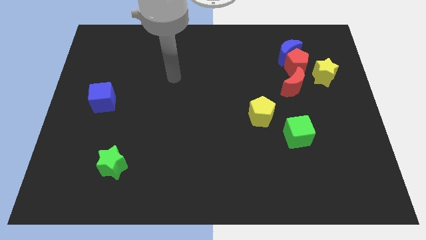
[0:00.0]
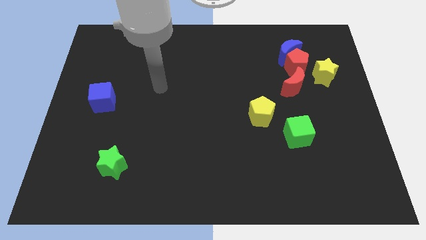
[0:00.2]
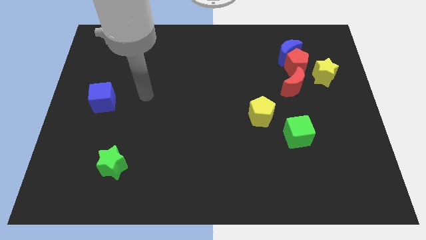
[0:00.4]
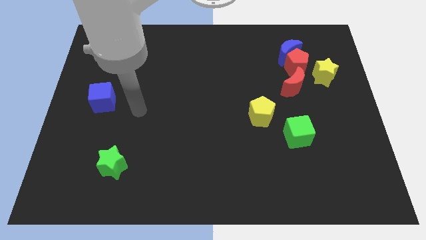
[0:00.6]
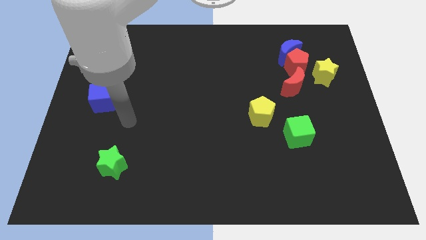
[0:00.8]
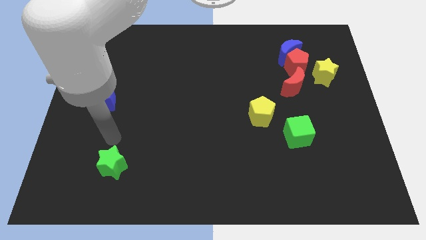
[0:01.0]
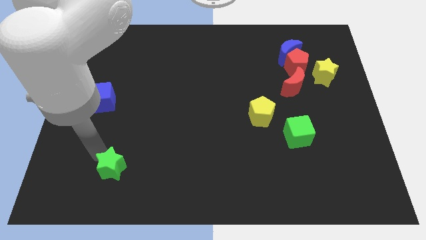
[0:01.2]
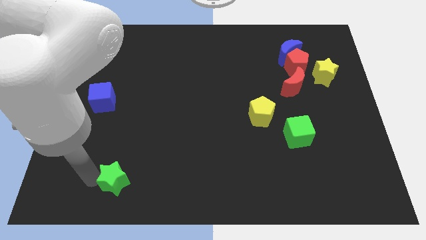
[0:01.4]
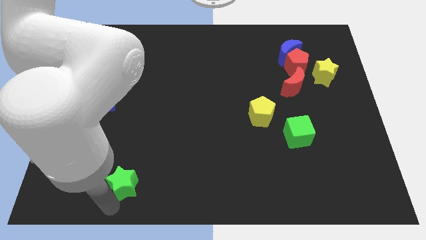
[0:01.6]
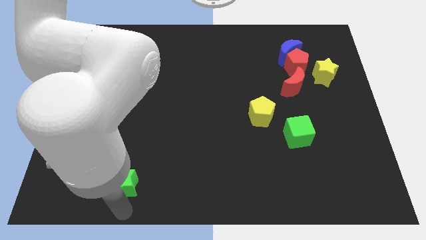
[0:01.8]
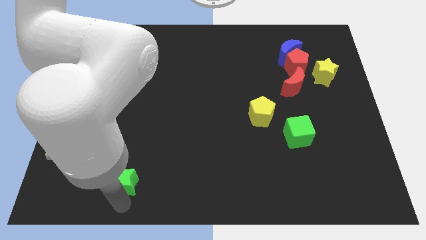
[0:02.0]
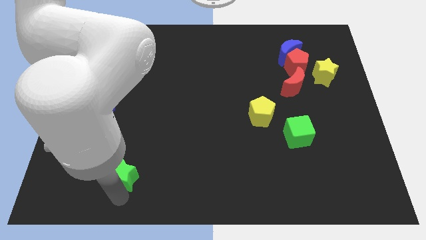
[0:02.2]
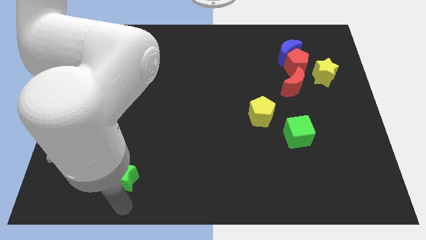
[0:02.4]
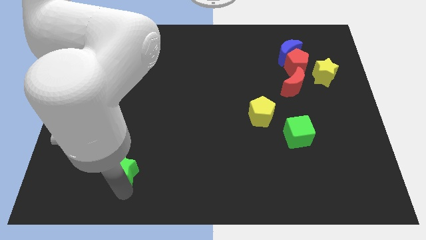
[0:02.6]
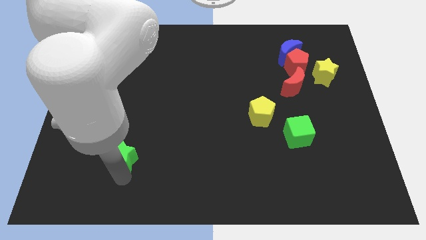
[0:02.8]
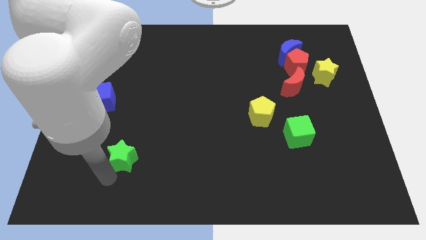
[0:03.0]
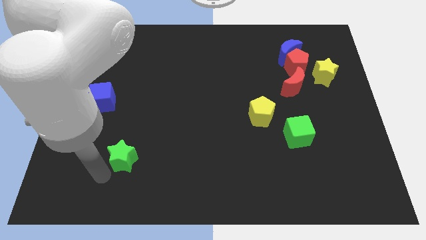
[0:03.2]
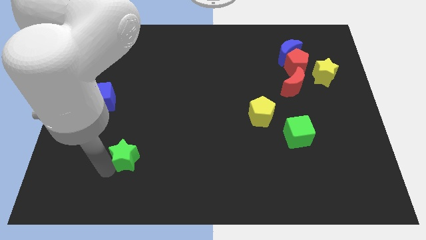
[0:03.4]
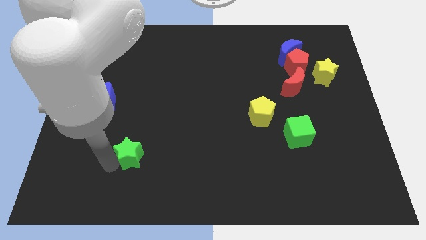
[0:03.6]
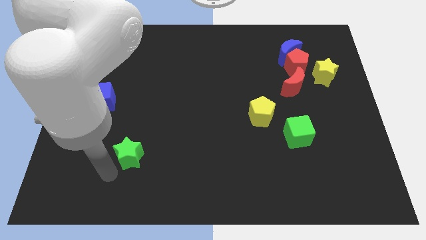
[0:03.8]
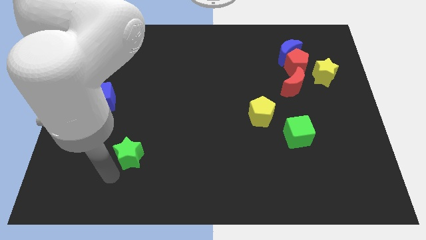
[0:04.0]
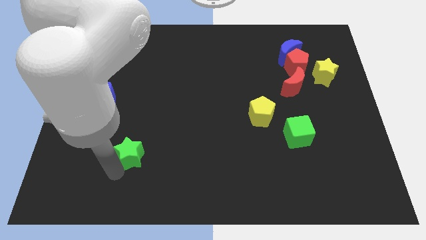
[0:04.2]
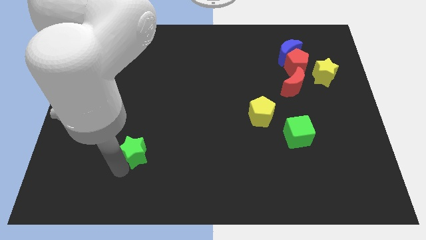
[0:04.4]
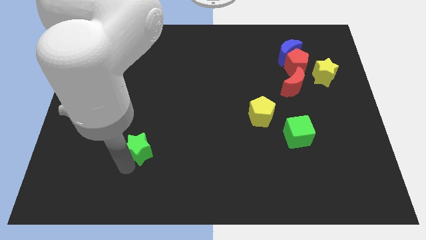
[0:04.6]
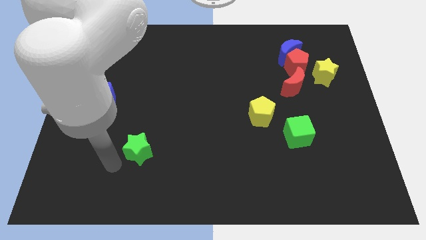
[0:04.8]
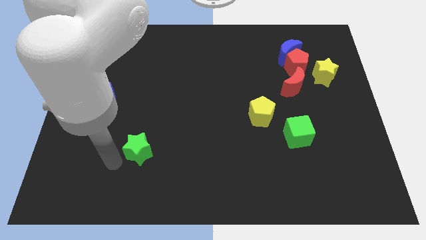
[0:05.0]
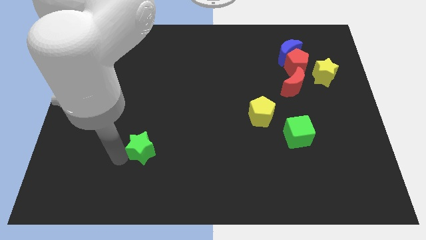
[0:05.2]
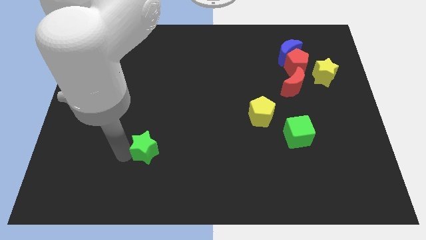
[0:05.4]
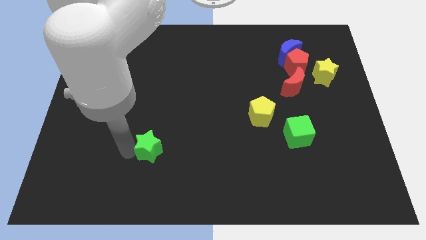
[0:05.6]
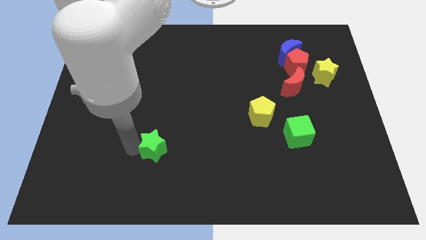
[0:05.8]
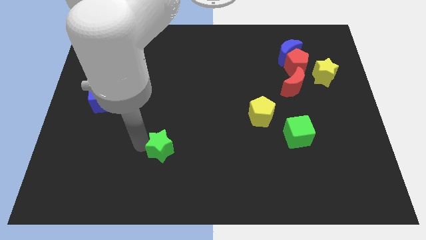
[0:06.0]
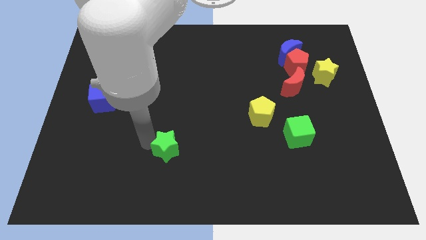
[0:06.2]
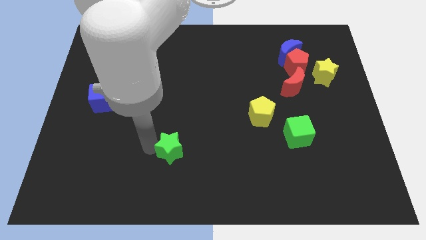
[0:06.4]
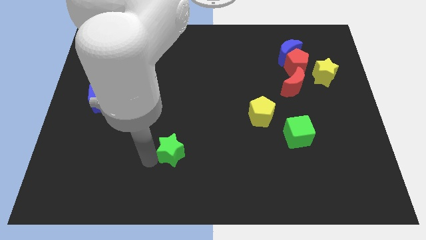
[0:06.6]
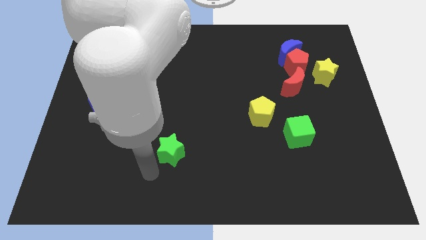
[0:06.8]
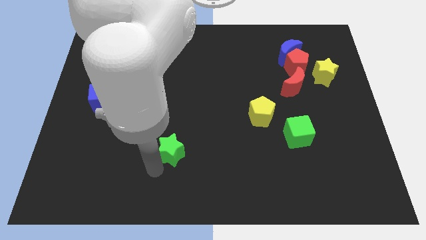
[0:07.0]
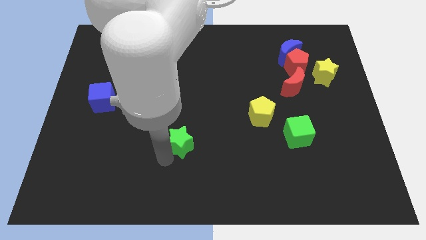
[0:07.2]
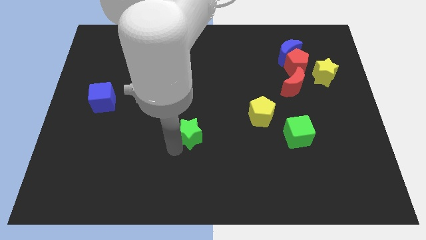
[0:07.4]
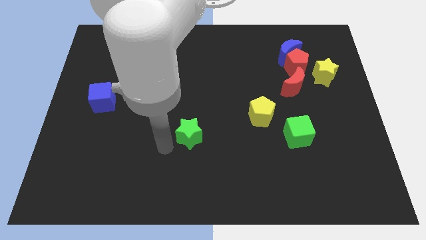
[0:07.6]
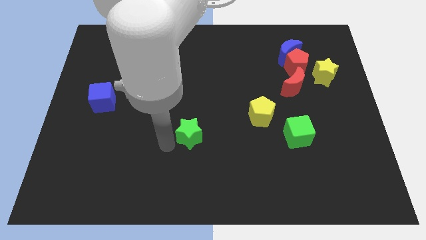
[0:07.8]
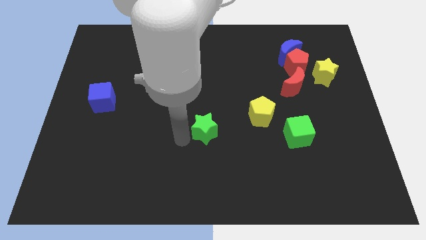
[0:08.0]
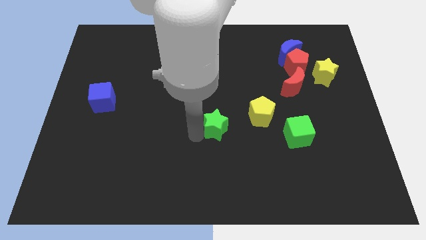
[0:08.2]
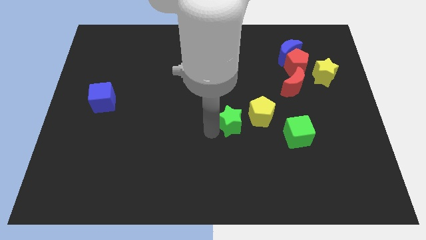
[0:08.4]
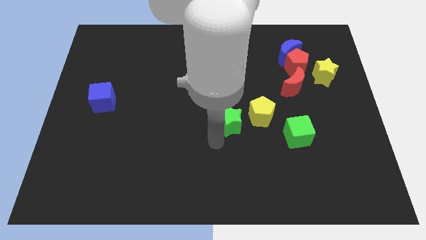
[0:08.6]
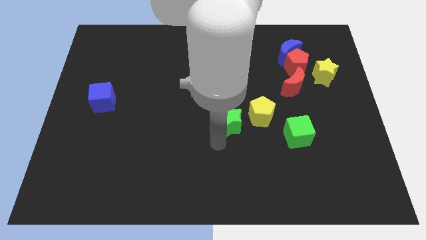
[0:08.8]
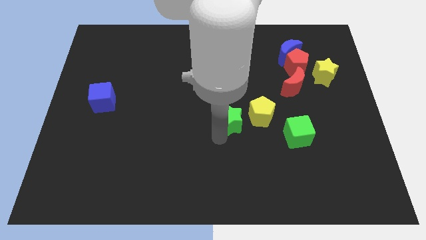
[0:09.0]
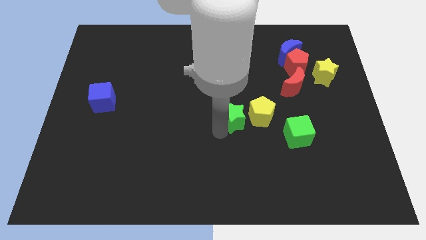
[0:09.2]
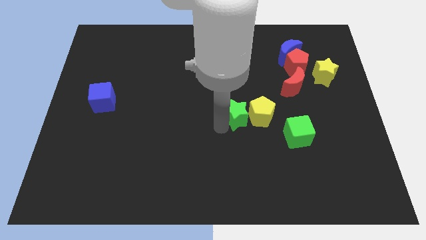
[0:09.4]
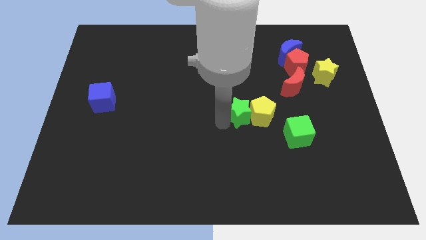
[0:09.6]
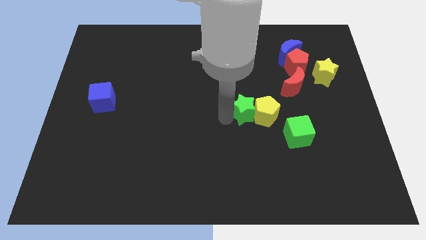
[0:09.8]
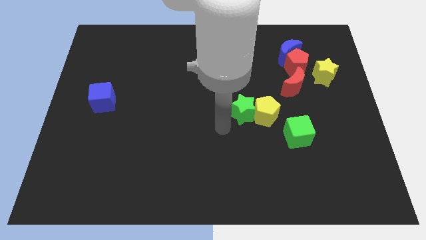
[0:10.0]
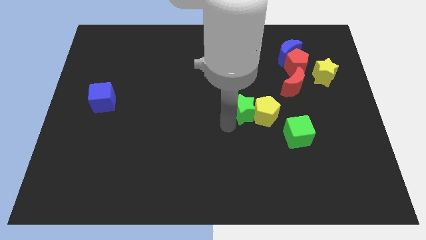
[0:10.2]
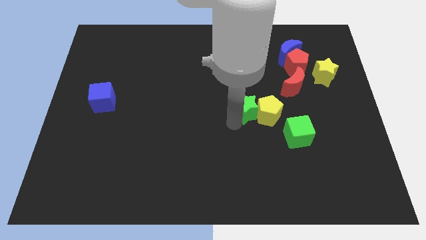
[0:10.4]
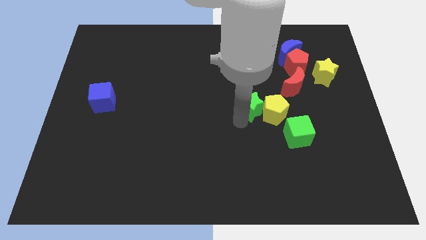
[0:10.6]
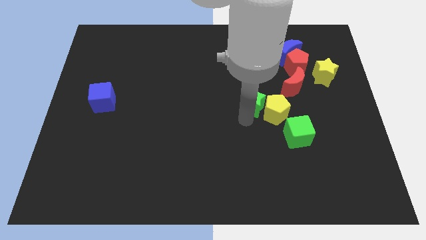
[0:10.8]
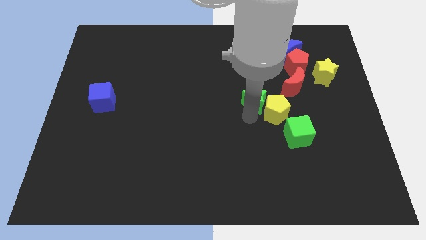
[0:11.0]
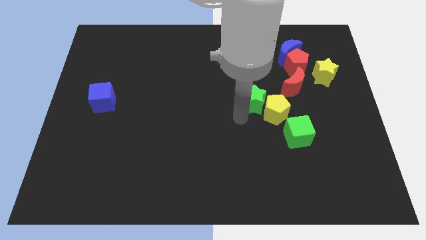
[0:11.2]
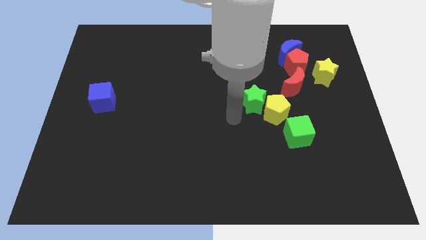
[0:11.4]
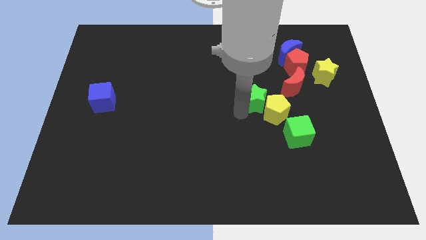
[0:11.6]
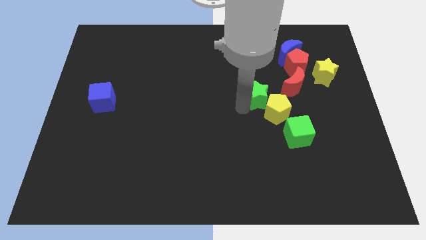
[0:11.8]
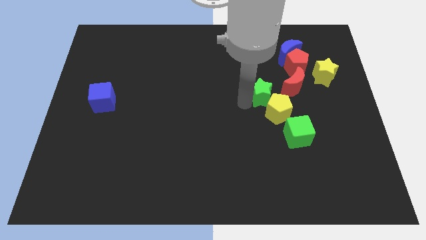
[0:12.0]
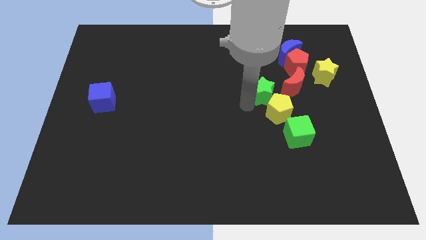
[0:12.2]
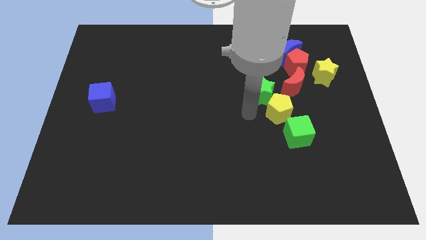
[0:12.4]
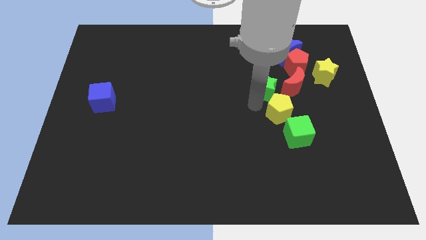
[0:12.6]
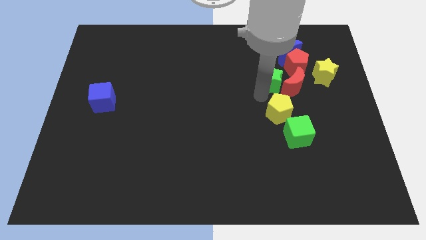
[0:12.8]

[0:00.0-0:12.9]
move the green star to the left of the yellow star
